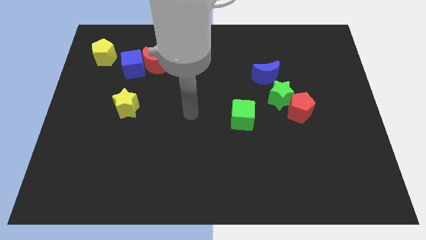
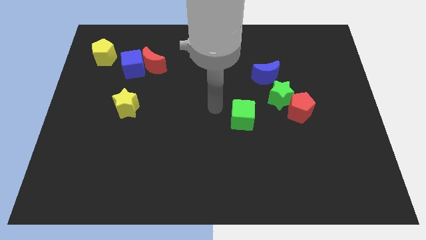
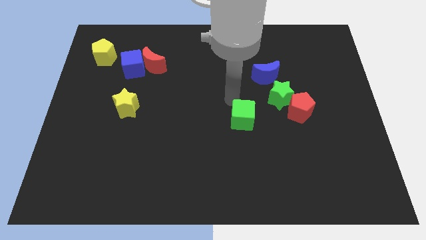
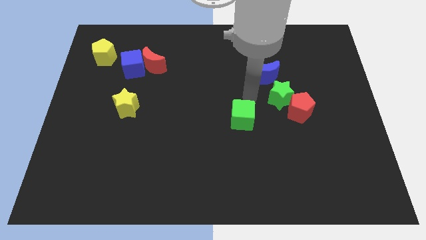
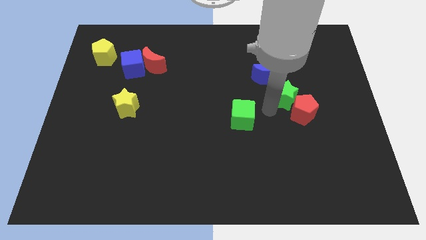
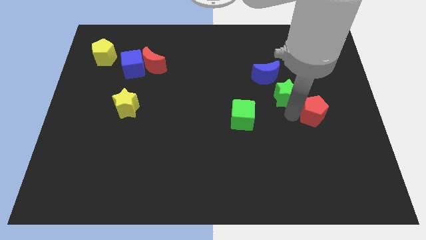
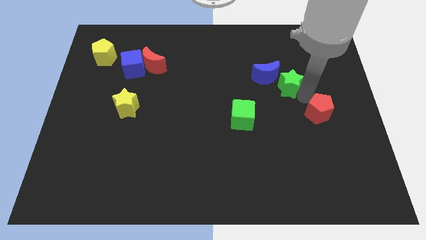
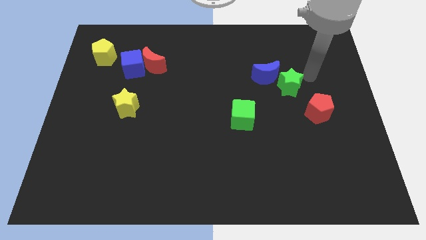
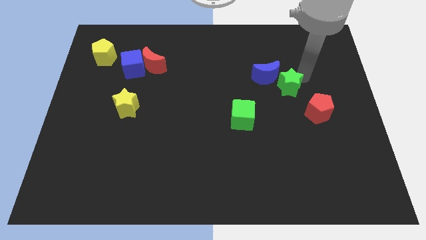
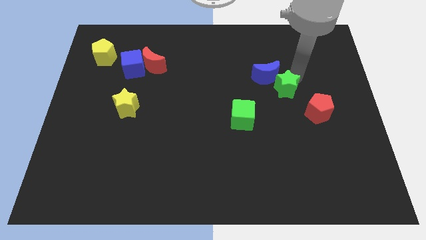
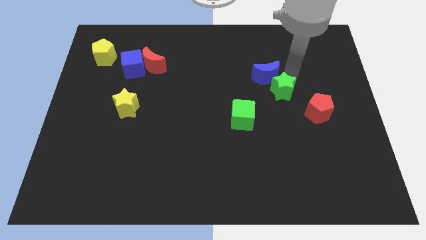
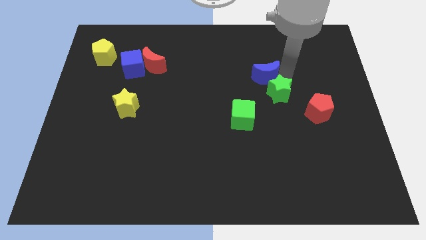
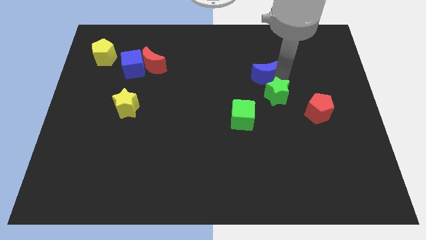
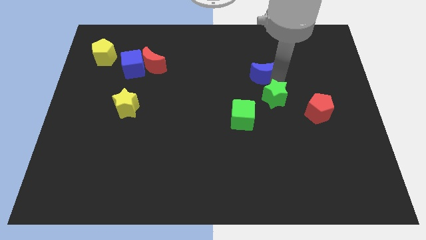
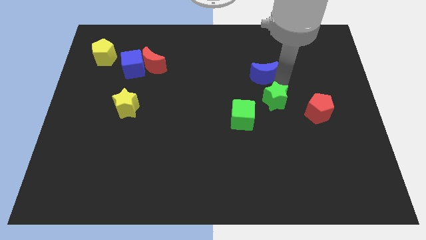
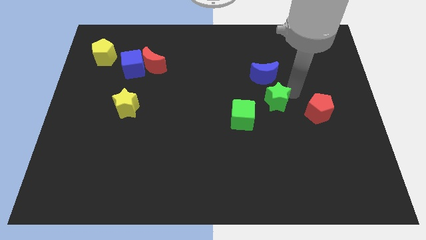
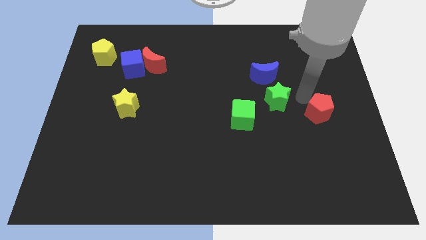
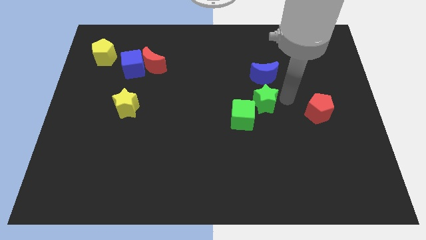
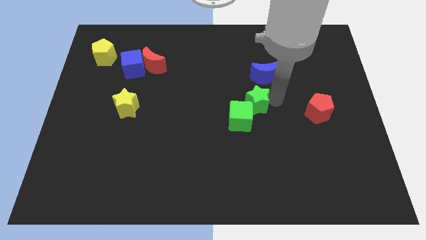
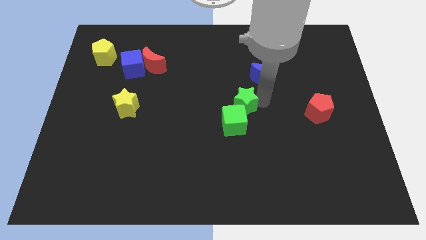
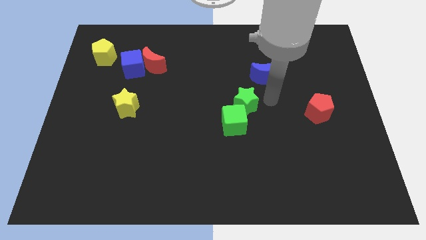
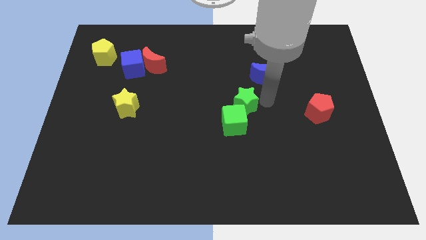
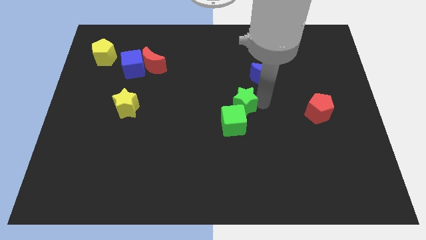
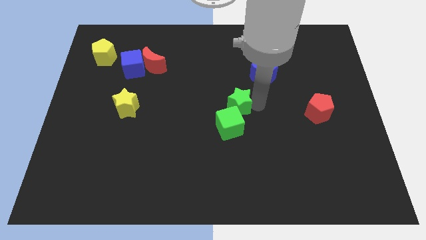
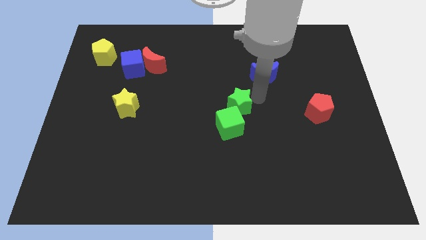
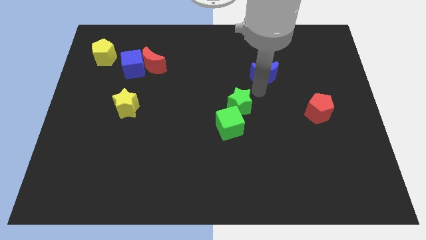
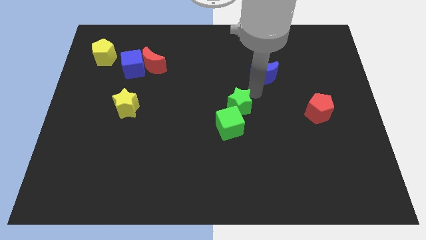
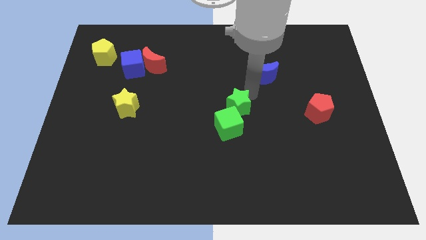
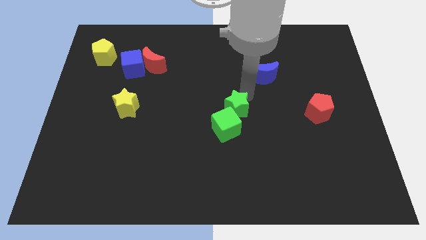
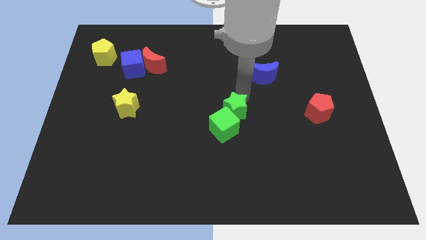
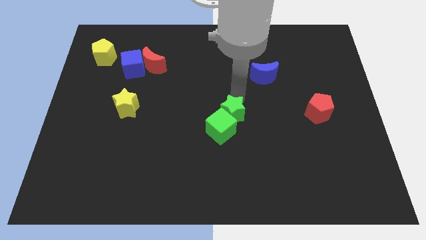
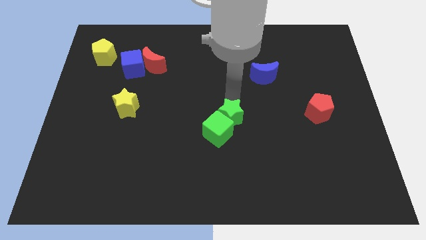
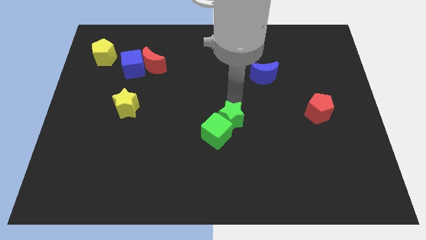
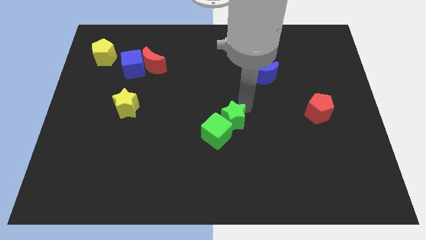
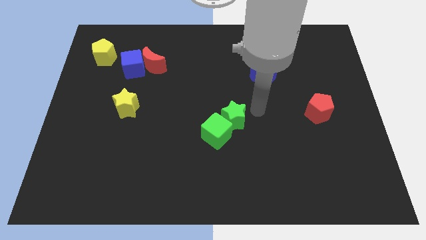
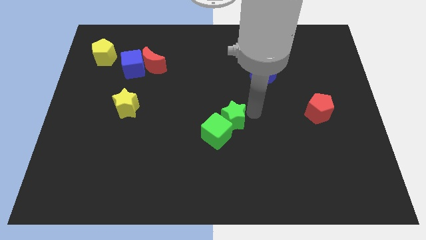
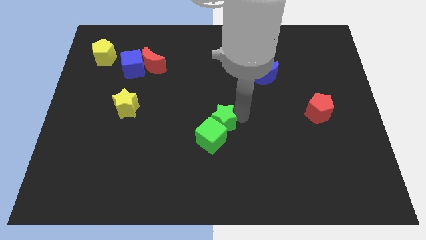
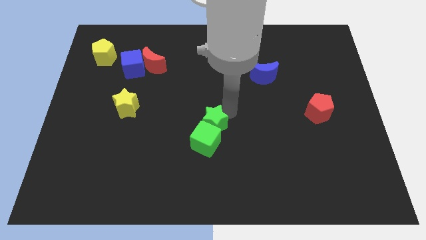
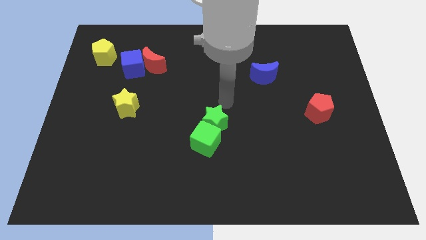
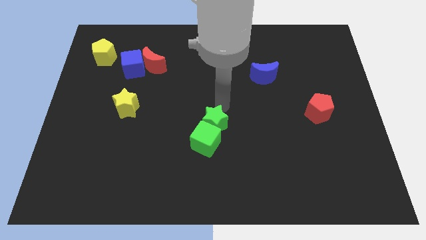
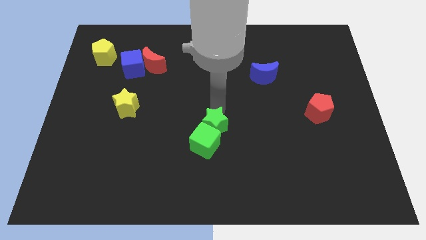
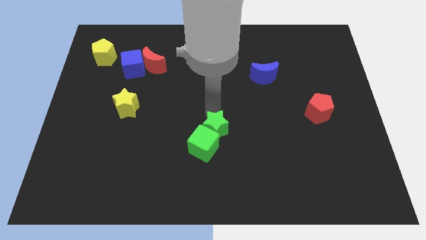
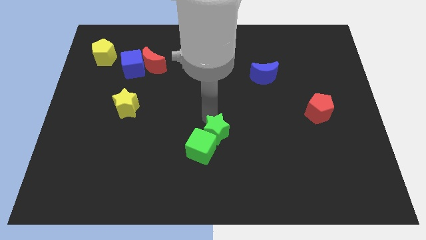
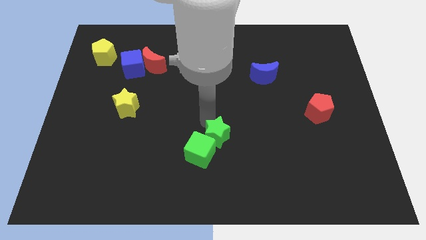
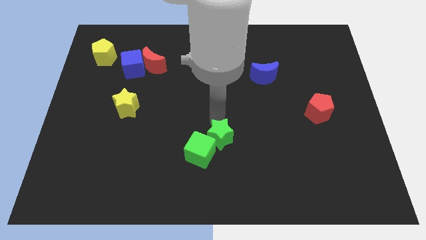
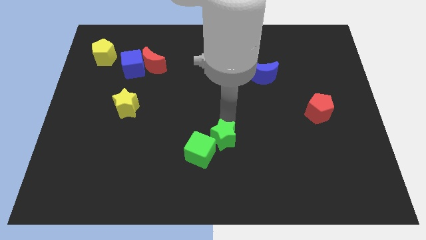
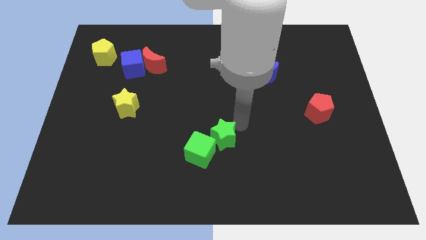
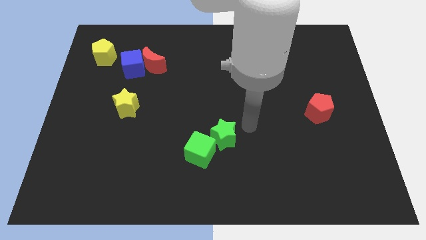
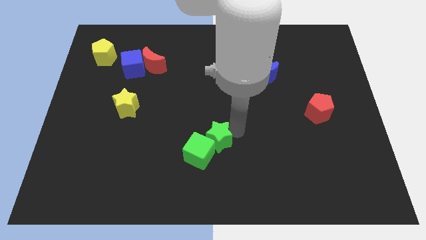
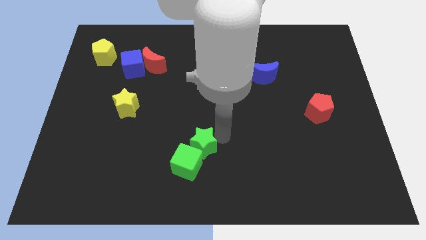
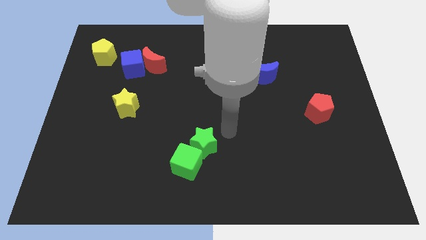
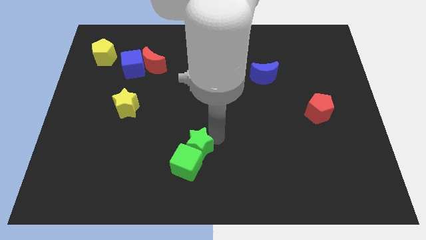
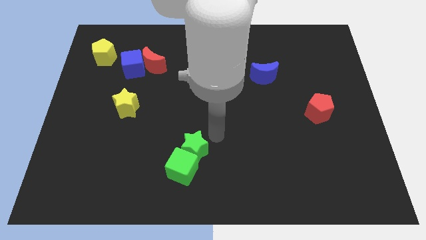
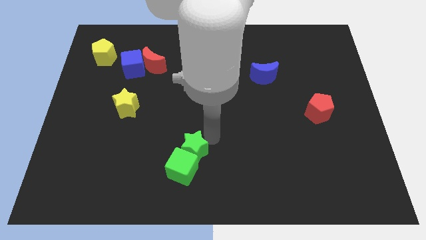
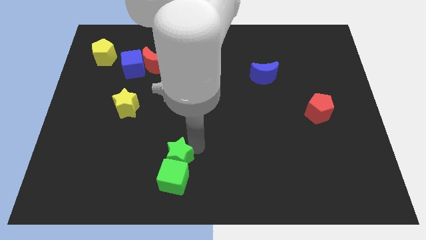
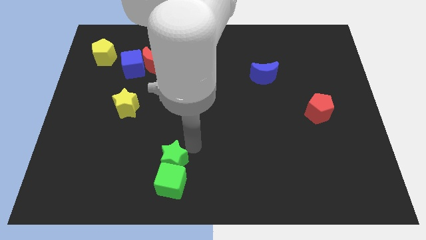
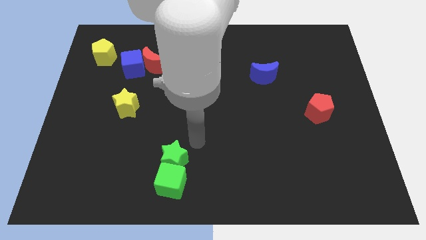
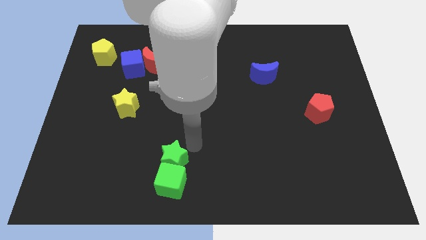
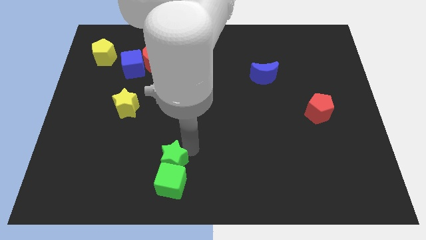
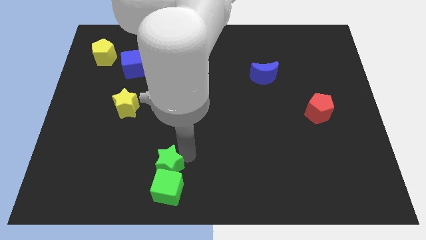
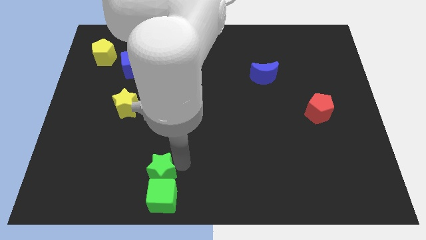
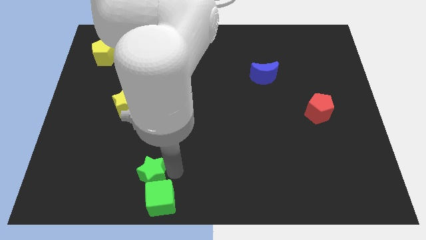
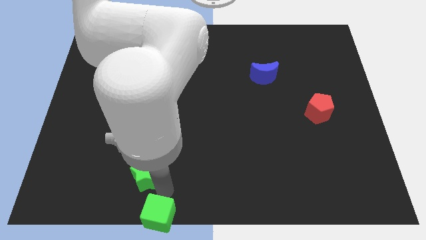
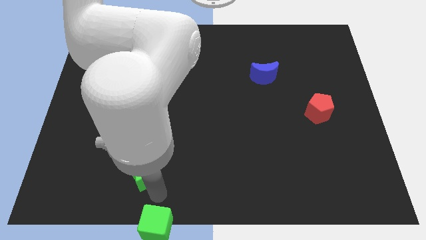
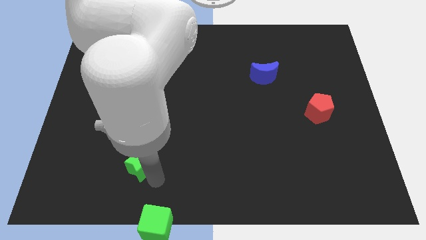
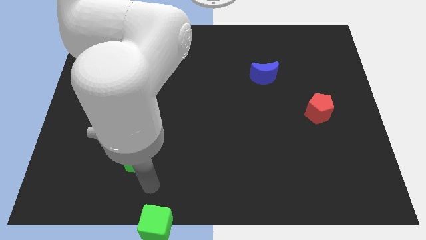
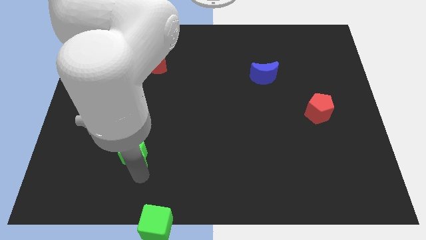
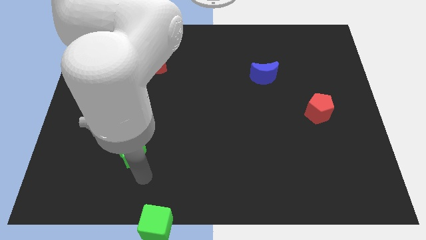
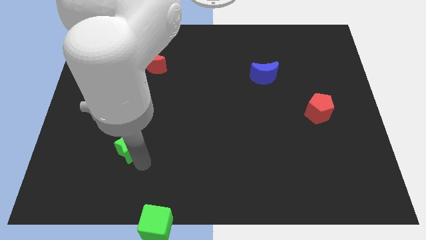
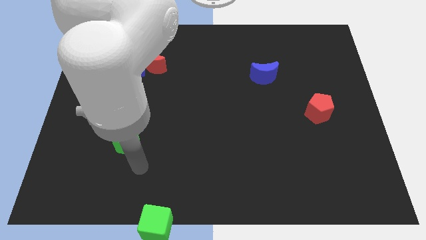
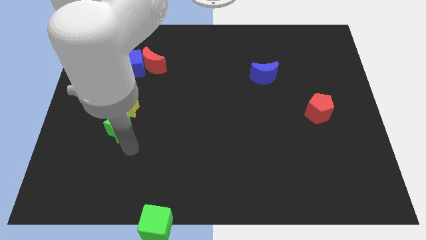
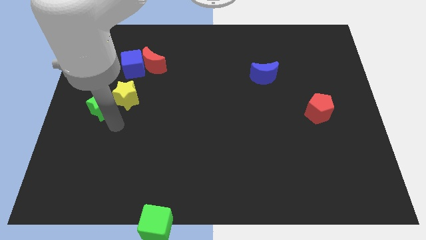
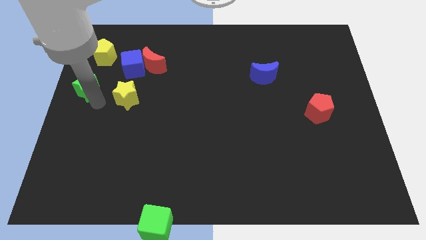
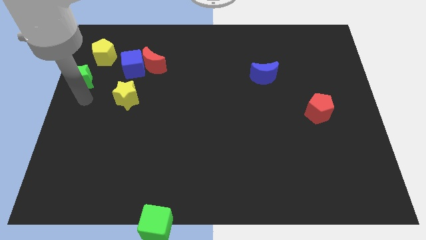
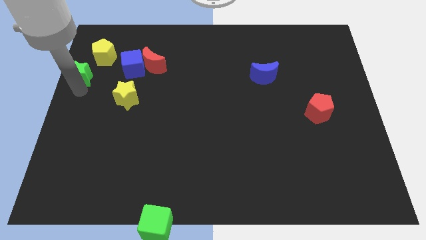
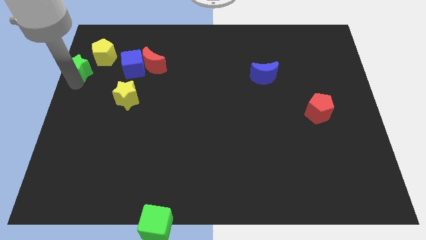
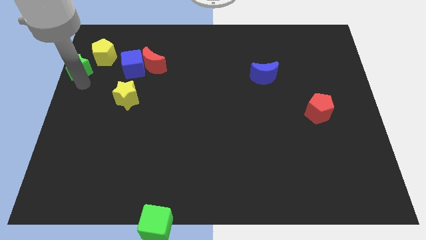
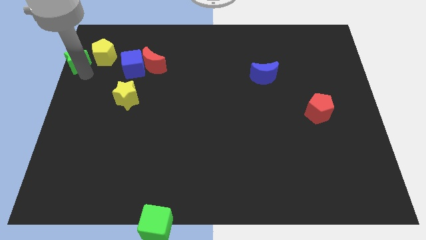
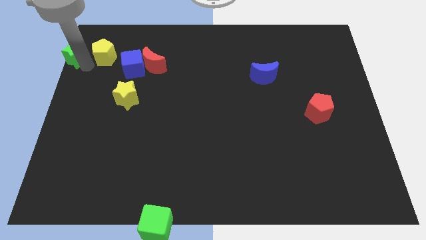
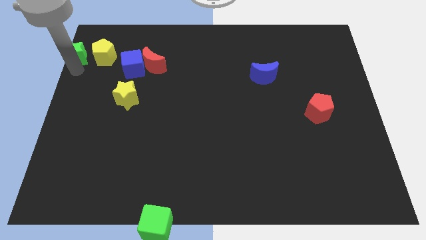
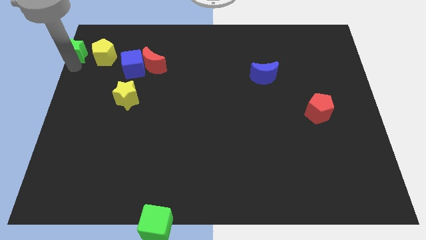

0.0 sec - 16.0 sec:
slide the green star to the top left
